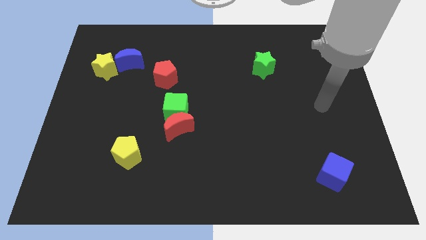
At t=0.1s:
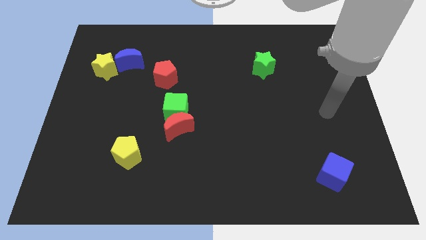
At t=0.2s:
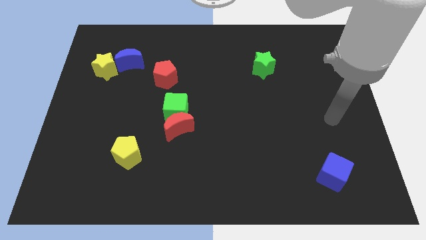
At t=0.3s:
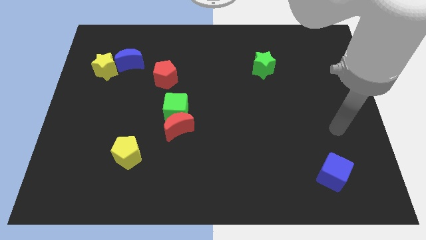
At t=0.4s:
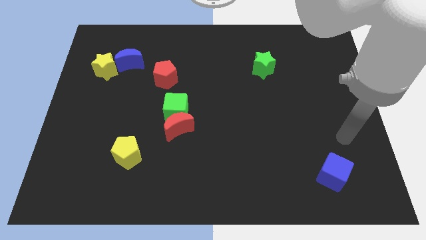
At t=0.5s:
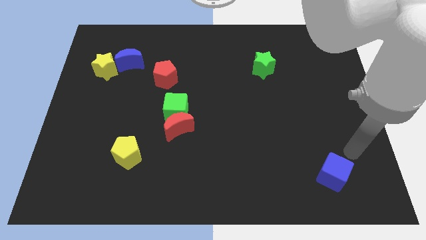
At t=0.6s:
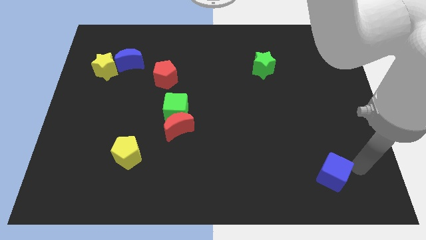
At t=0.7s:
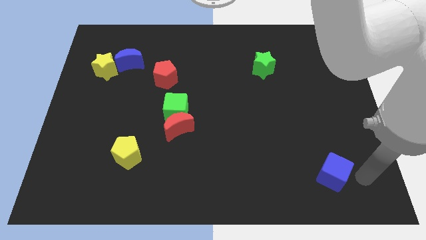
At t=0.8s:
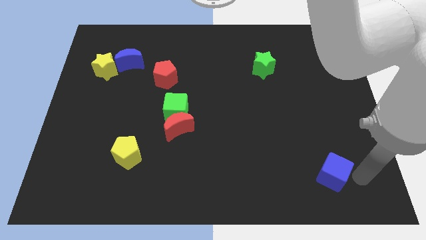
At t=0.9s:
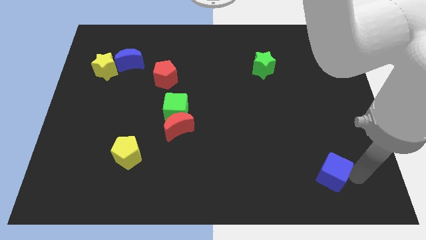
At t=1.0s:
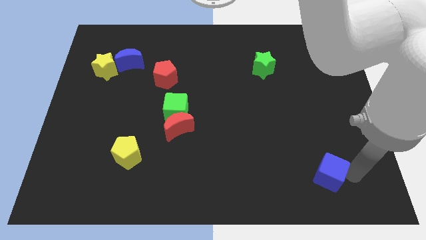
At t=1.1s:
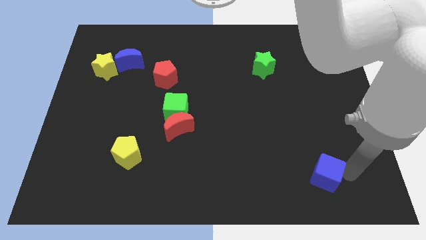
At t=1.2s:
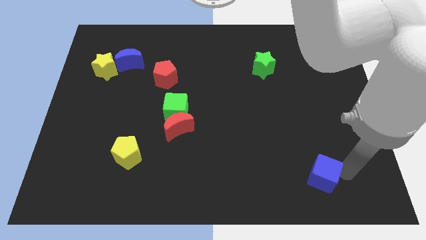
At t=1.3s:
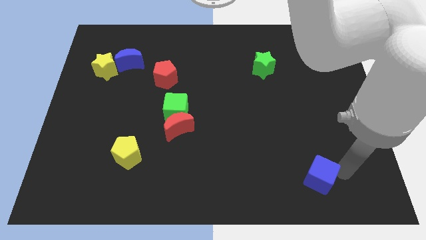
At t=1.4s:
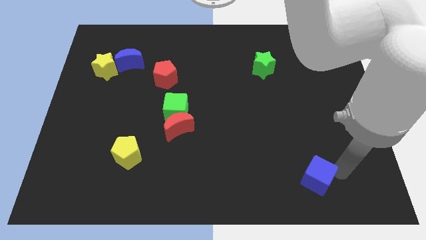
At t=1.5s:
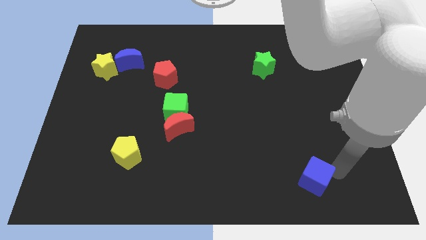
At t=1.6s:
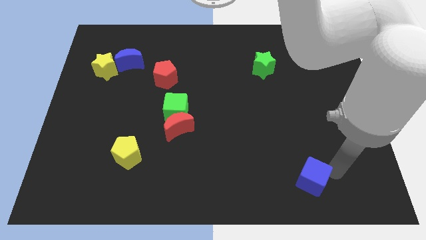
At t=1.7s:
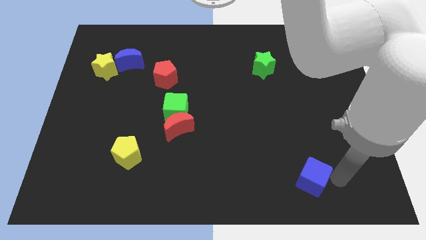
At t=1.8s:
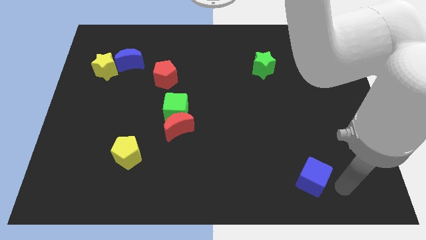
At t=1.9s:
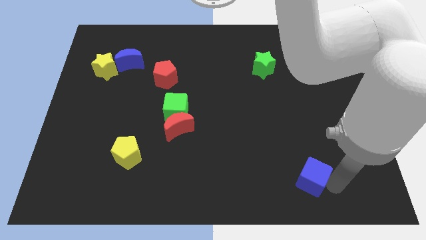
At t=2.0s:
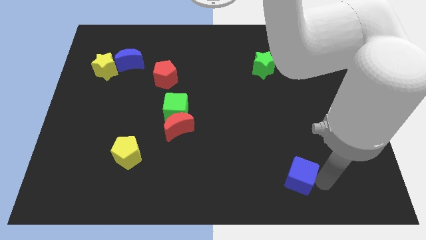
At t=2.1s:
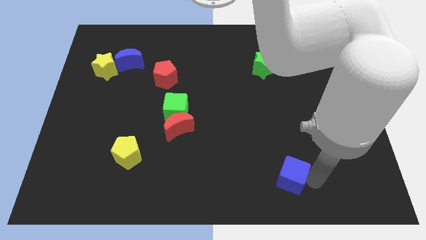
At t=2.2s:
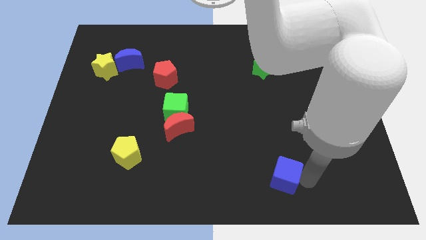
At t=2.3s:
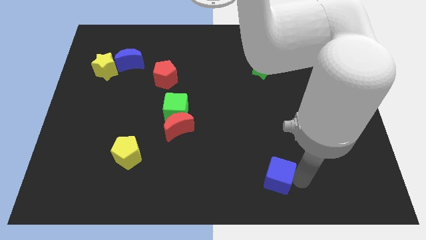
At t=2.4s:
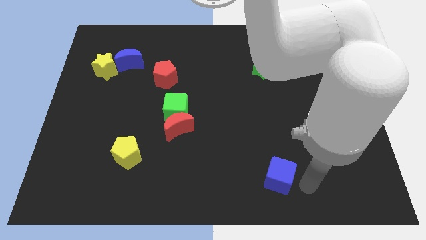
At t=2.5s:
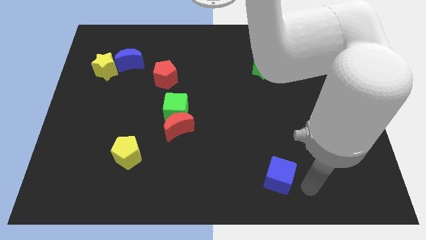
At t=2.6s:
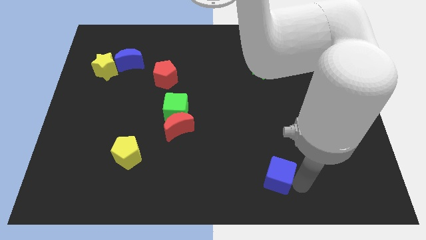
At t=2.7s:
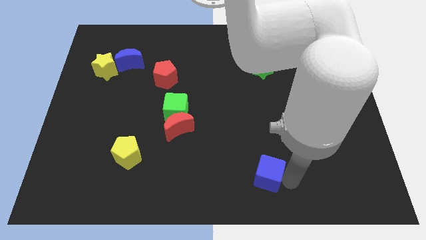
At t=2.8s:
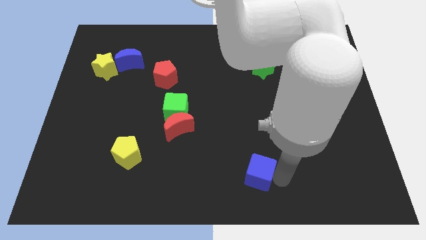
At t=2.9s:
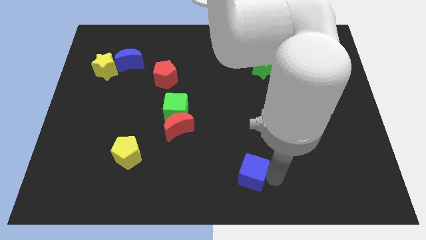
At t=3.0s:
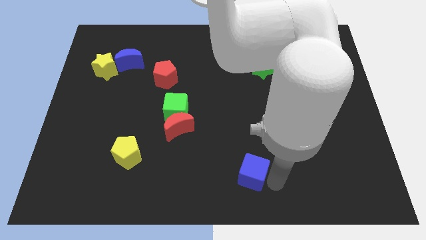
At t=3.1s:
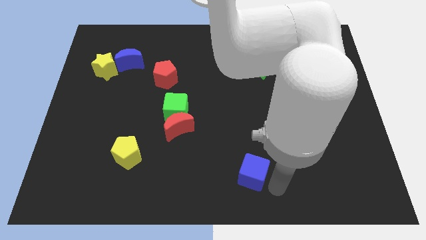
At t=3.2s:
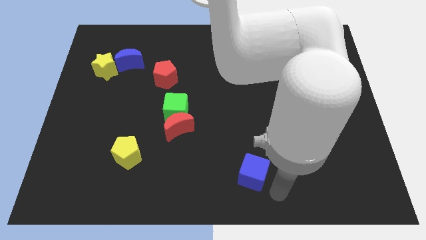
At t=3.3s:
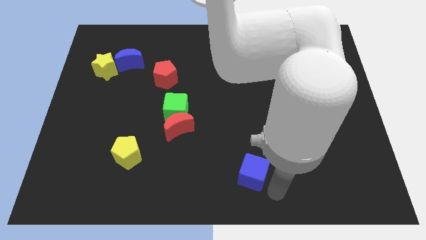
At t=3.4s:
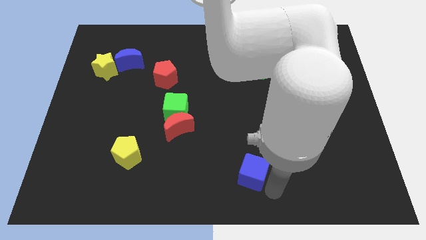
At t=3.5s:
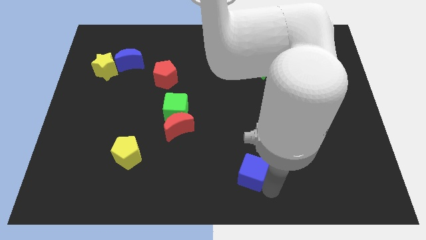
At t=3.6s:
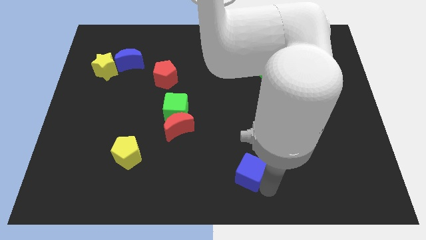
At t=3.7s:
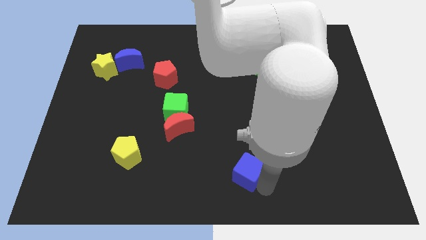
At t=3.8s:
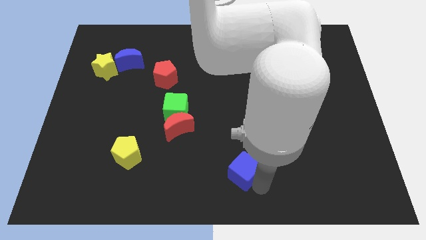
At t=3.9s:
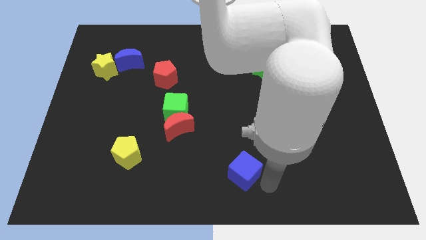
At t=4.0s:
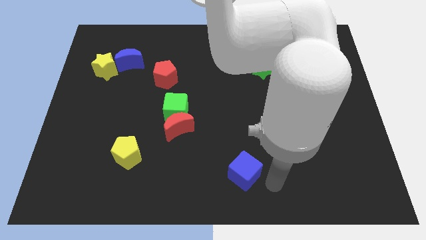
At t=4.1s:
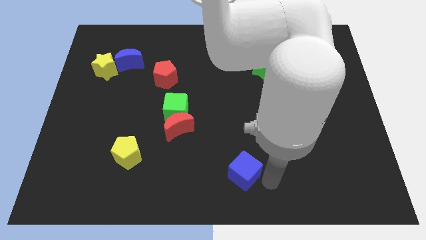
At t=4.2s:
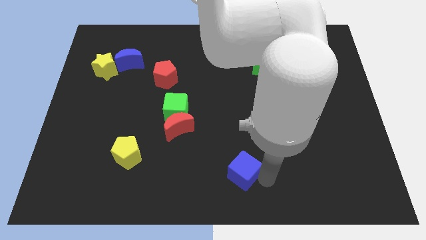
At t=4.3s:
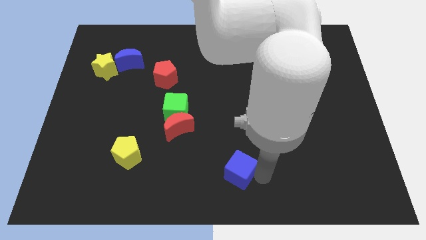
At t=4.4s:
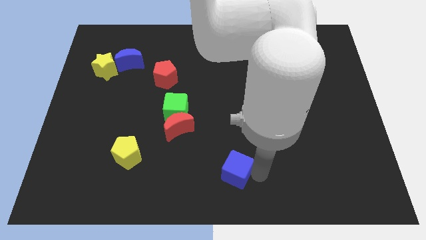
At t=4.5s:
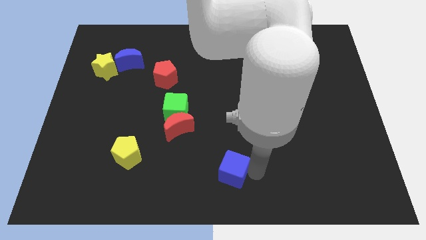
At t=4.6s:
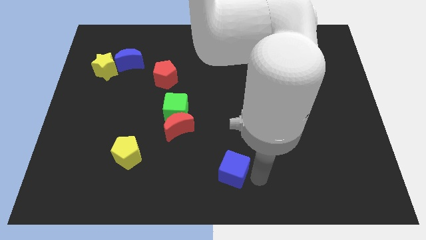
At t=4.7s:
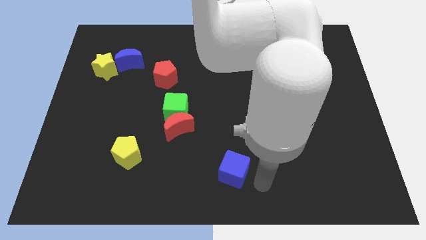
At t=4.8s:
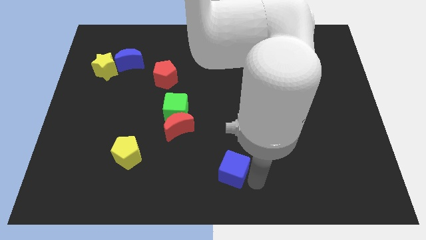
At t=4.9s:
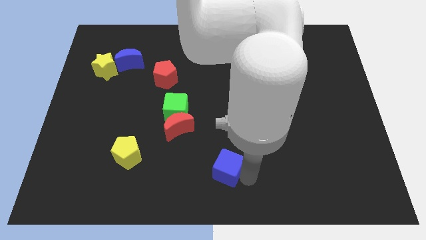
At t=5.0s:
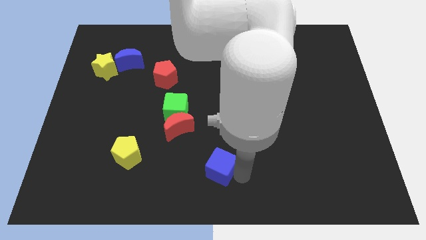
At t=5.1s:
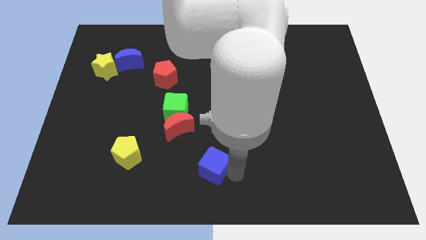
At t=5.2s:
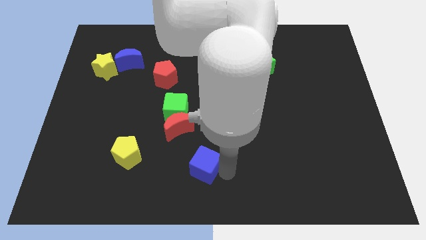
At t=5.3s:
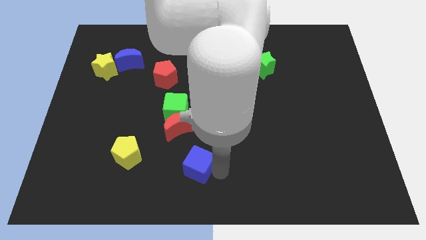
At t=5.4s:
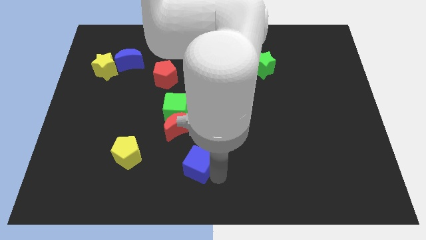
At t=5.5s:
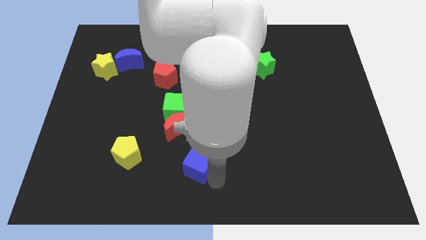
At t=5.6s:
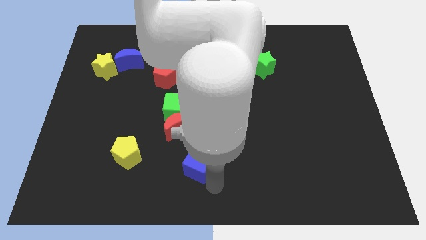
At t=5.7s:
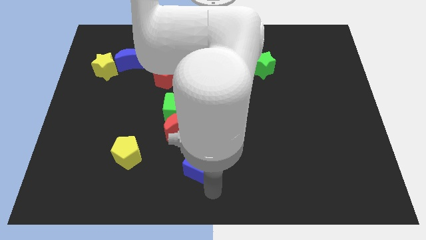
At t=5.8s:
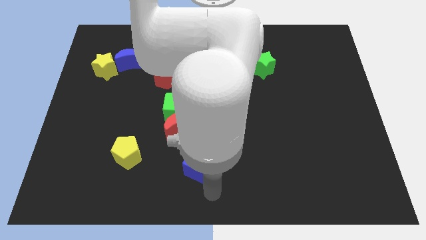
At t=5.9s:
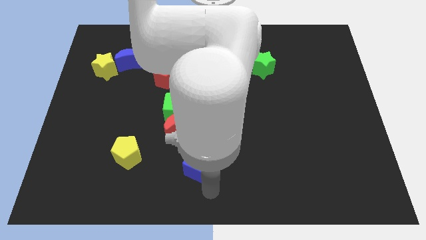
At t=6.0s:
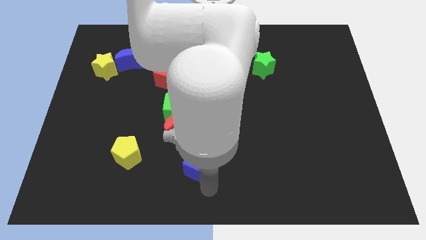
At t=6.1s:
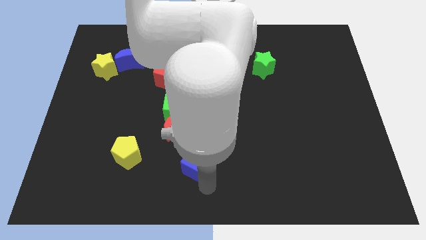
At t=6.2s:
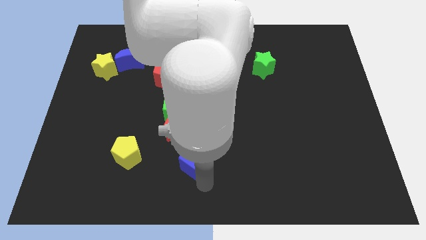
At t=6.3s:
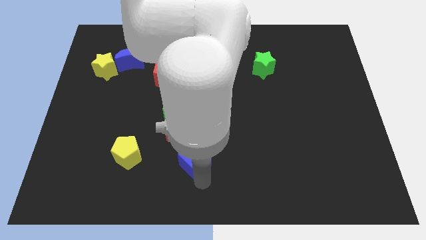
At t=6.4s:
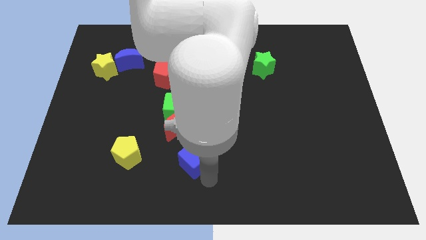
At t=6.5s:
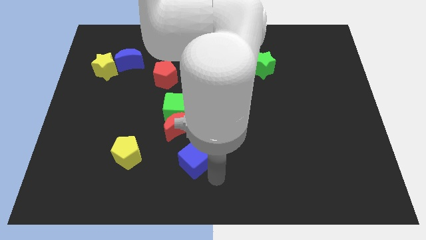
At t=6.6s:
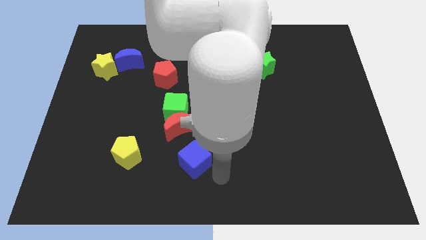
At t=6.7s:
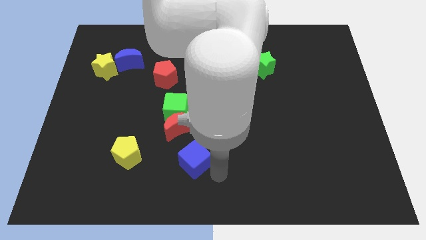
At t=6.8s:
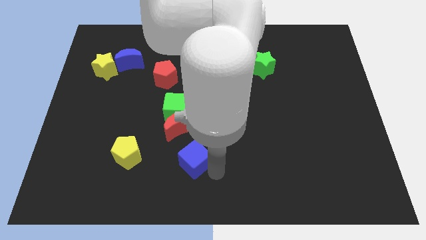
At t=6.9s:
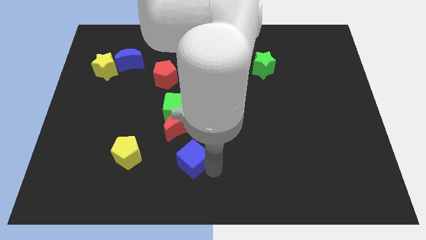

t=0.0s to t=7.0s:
push the blue cube below the green cube

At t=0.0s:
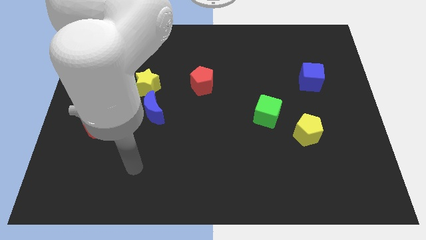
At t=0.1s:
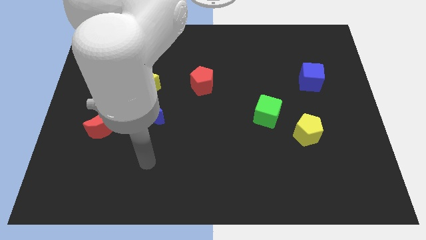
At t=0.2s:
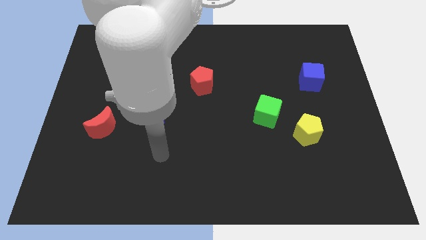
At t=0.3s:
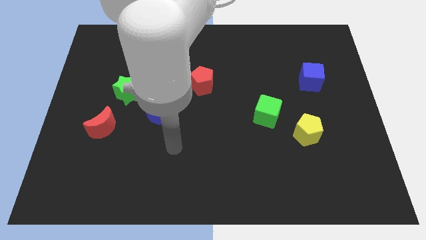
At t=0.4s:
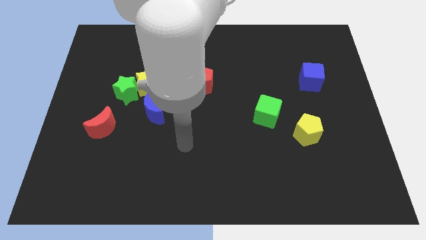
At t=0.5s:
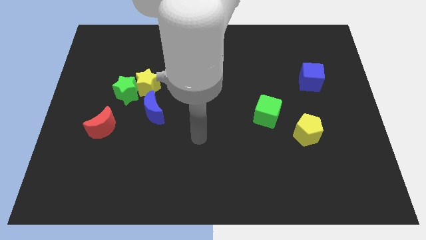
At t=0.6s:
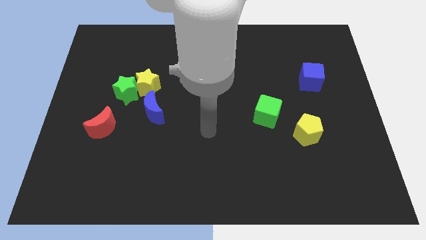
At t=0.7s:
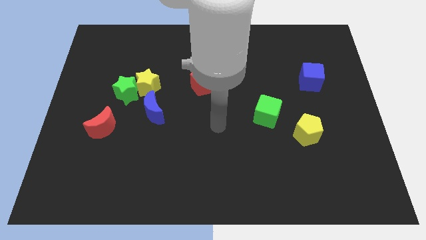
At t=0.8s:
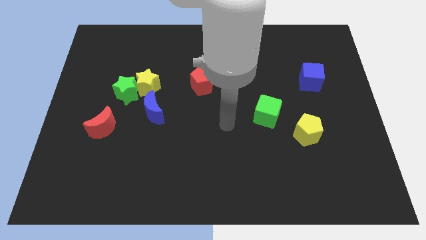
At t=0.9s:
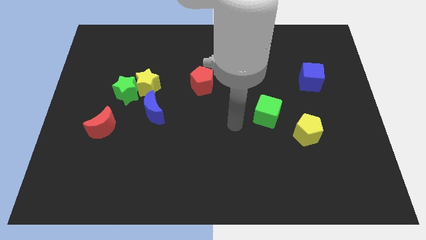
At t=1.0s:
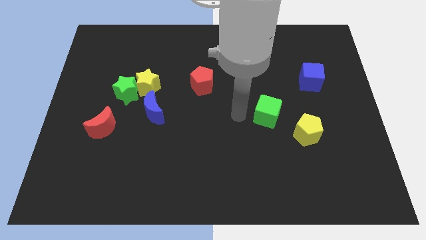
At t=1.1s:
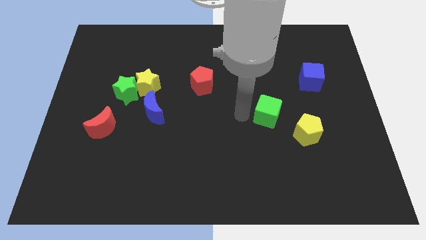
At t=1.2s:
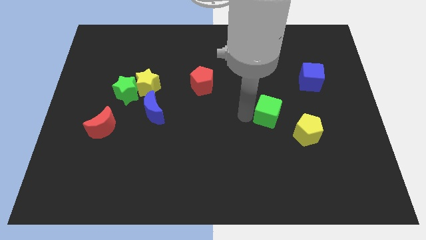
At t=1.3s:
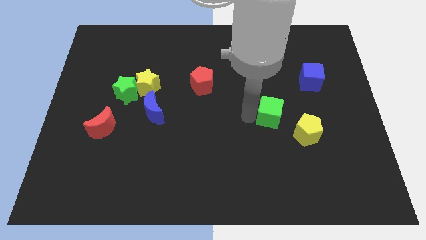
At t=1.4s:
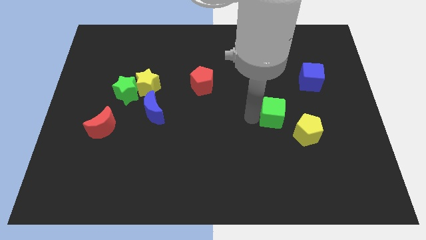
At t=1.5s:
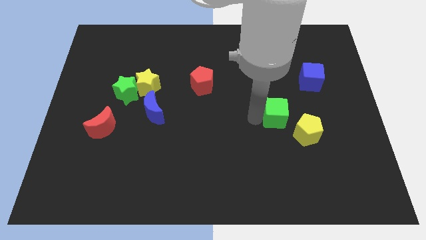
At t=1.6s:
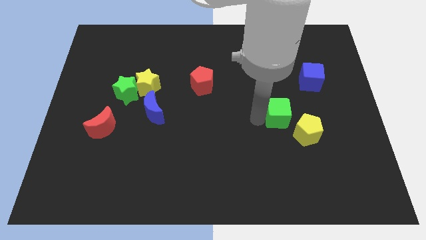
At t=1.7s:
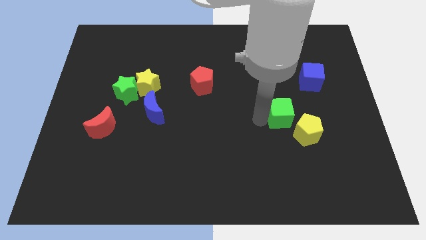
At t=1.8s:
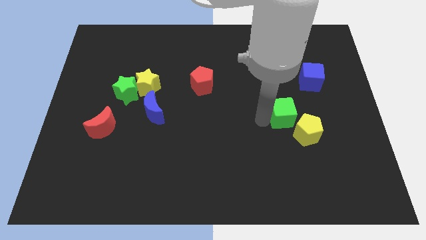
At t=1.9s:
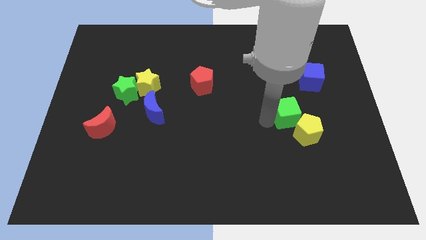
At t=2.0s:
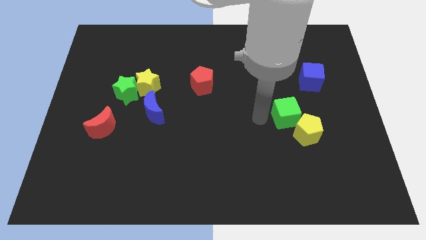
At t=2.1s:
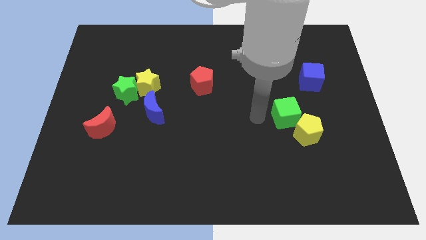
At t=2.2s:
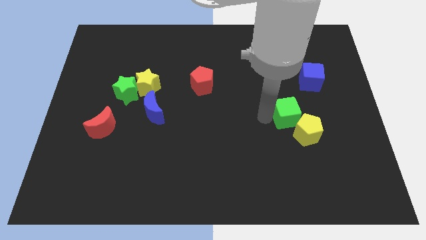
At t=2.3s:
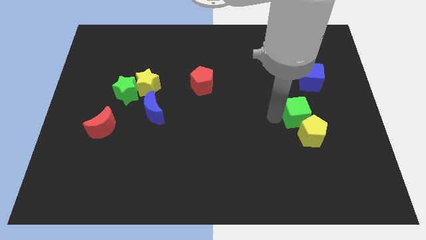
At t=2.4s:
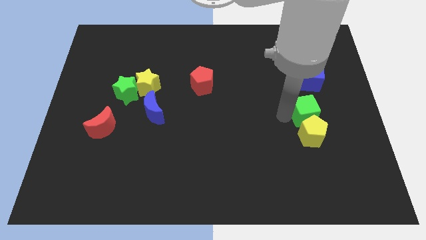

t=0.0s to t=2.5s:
put the green cube diagonally up and to the right of the yellow pentagon
